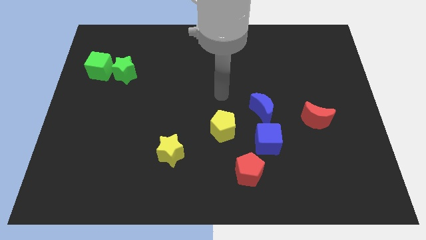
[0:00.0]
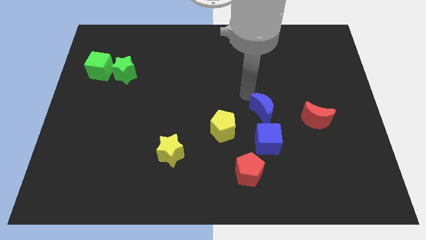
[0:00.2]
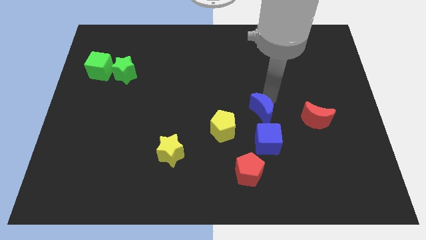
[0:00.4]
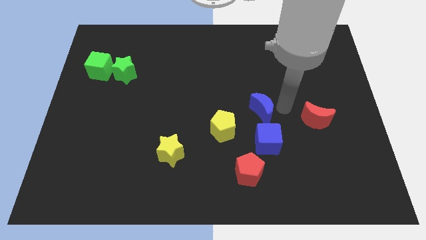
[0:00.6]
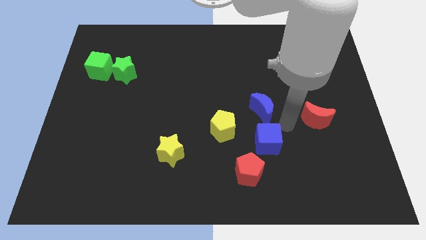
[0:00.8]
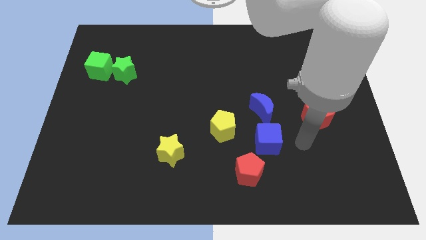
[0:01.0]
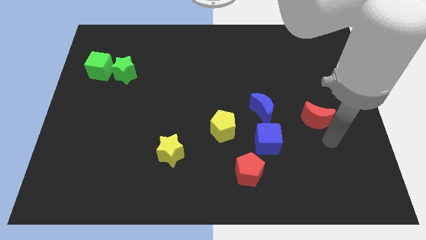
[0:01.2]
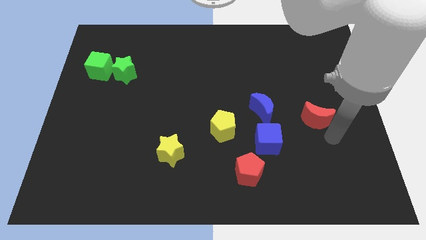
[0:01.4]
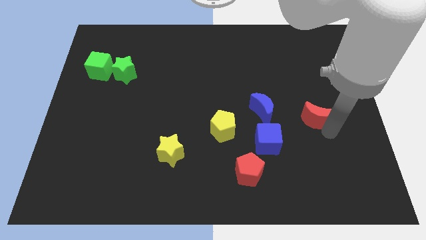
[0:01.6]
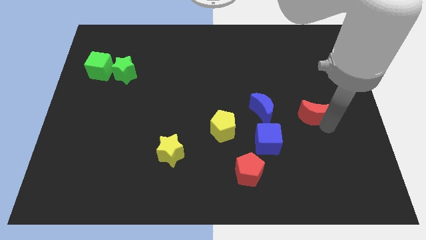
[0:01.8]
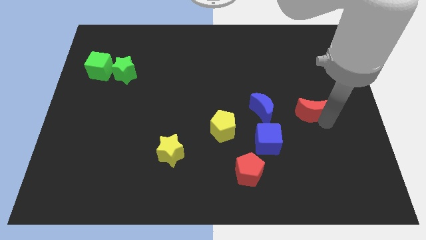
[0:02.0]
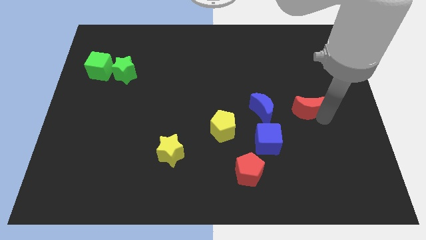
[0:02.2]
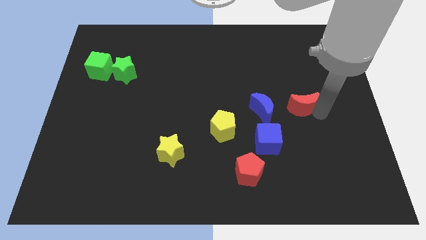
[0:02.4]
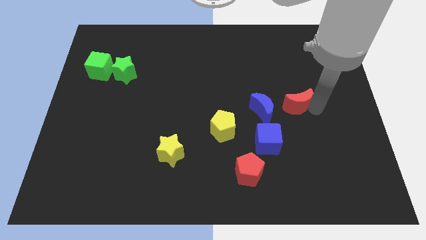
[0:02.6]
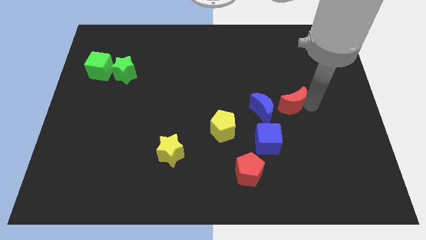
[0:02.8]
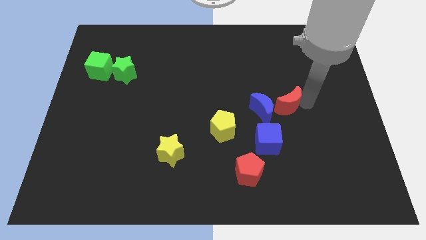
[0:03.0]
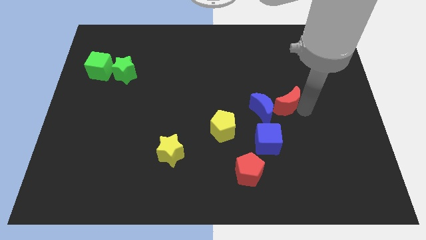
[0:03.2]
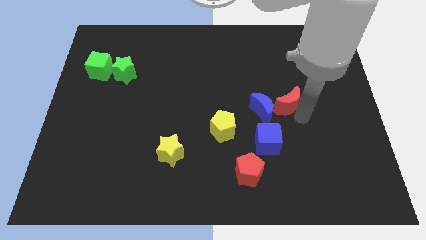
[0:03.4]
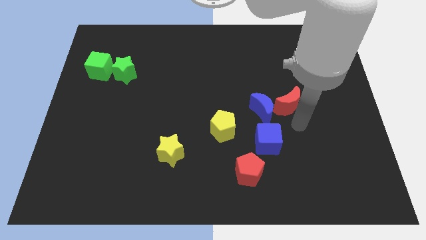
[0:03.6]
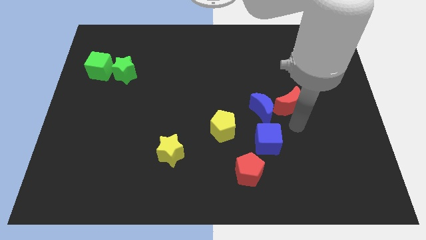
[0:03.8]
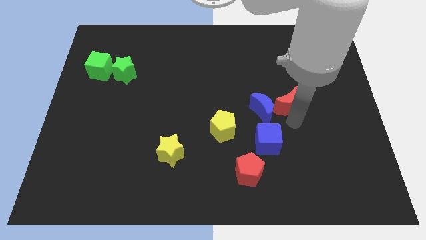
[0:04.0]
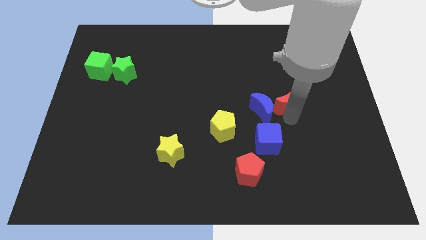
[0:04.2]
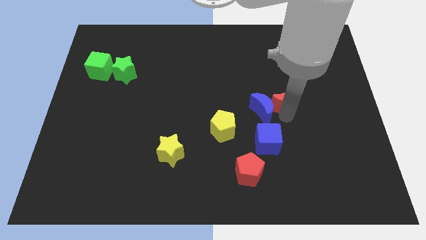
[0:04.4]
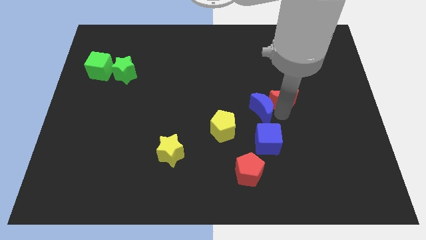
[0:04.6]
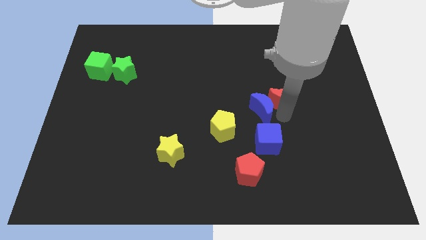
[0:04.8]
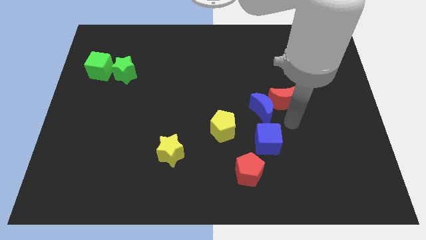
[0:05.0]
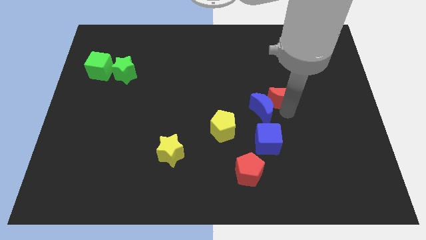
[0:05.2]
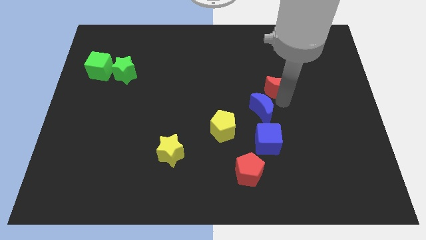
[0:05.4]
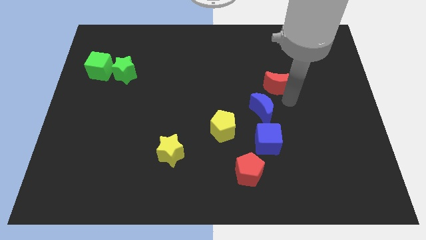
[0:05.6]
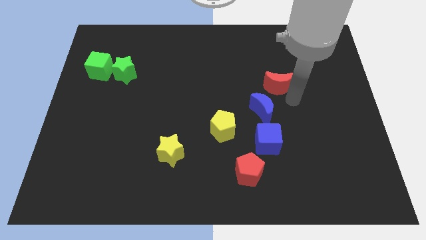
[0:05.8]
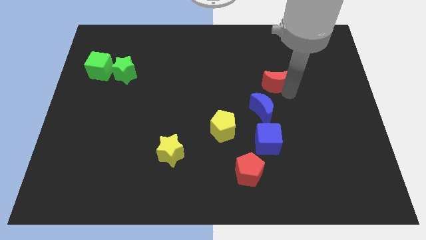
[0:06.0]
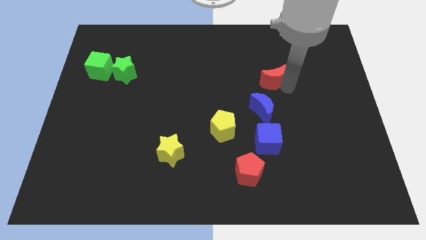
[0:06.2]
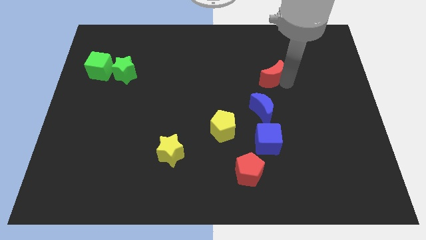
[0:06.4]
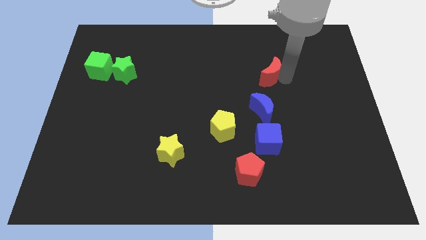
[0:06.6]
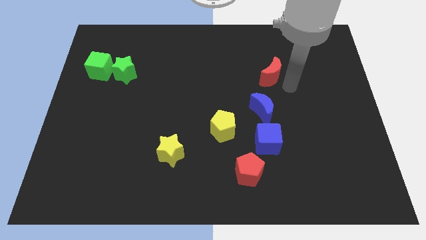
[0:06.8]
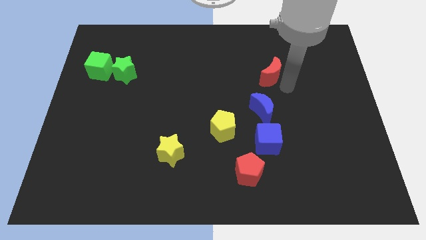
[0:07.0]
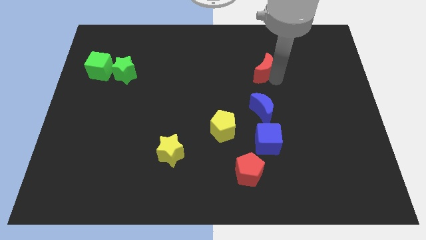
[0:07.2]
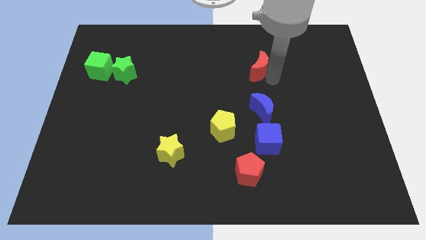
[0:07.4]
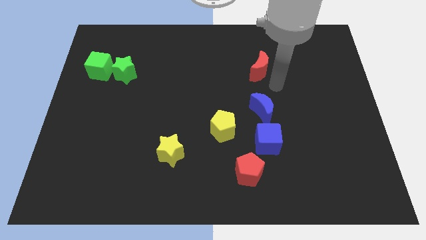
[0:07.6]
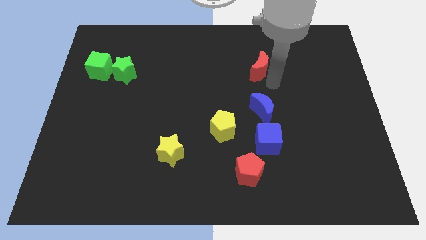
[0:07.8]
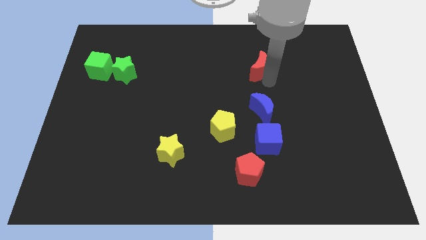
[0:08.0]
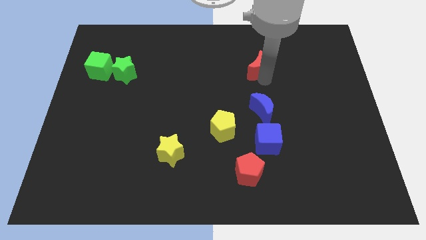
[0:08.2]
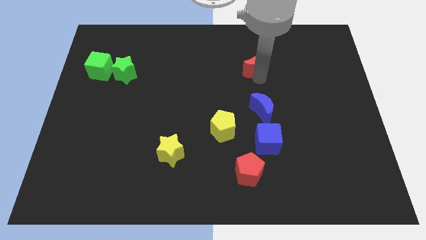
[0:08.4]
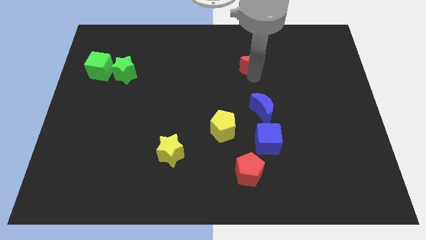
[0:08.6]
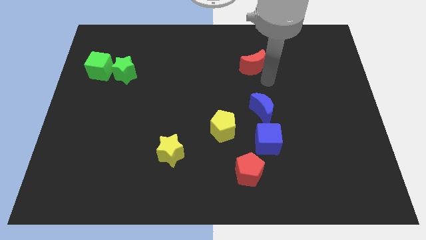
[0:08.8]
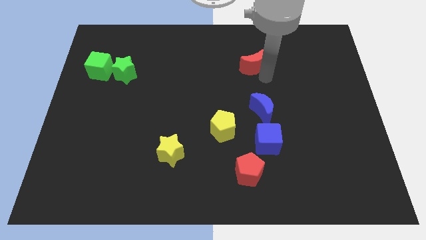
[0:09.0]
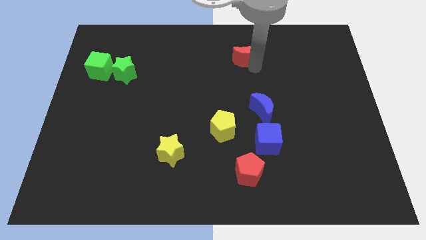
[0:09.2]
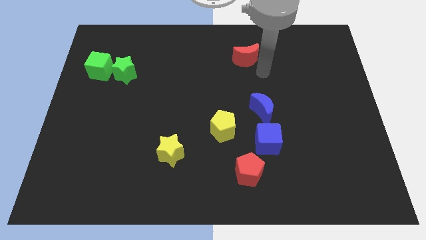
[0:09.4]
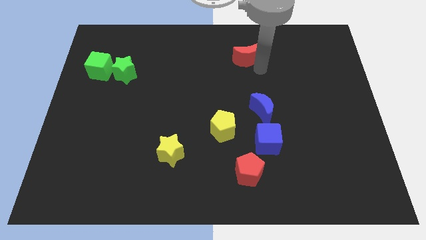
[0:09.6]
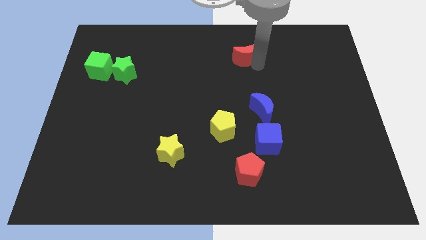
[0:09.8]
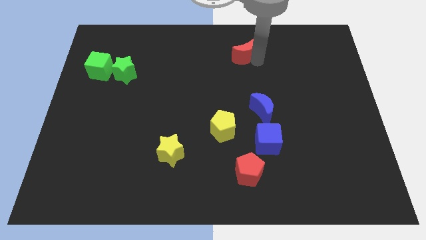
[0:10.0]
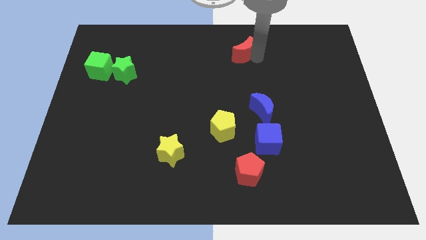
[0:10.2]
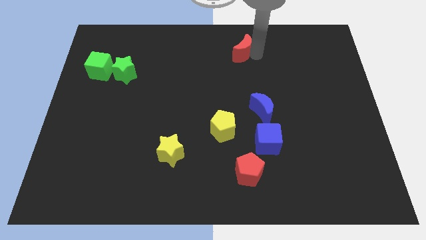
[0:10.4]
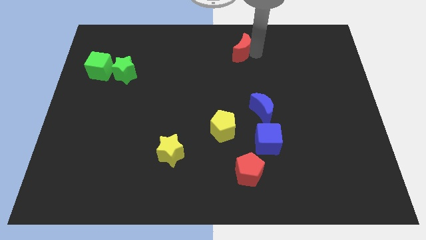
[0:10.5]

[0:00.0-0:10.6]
push the red moon to the top

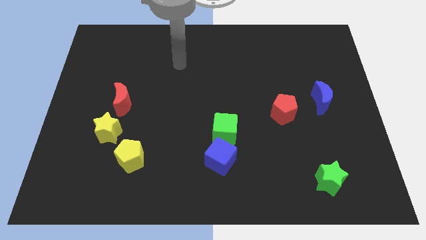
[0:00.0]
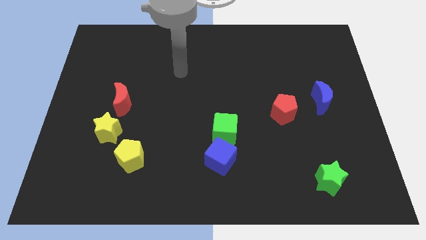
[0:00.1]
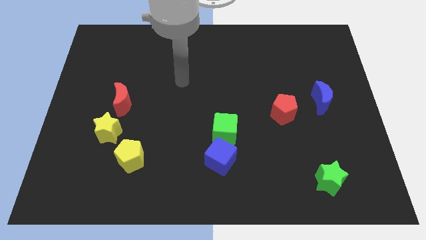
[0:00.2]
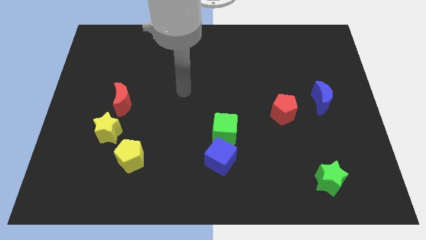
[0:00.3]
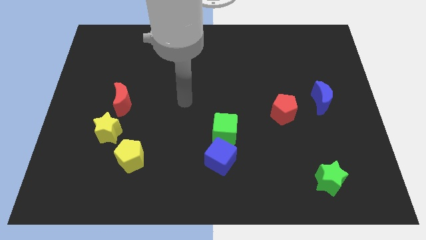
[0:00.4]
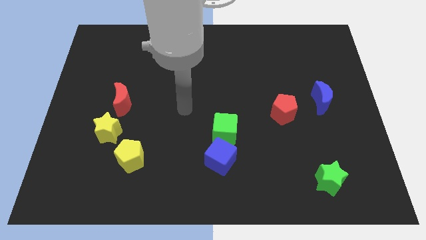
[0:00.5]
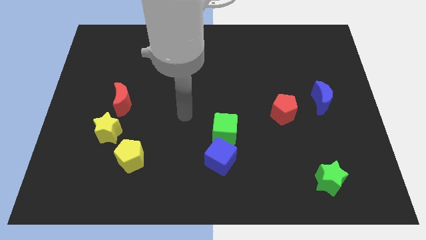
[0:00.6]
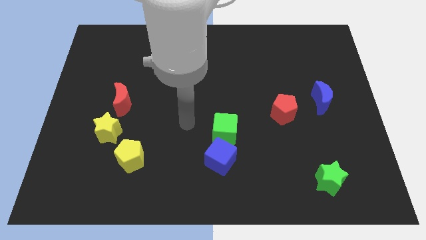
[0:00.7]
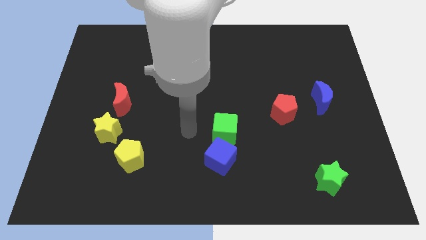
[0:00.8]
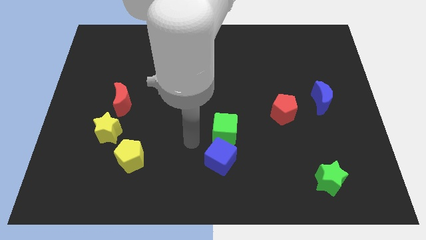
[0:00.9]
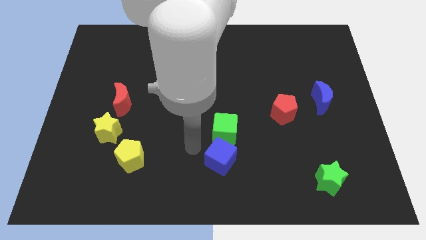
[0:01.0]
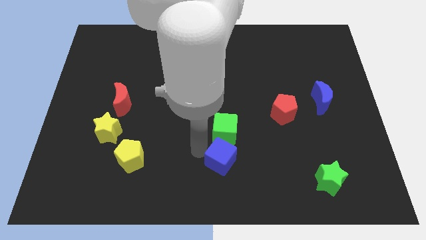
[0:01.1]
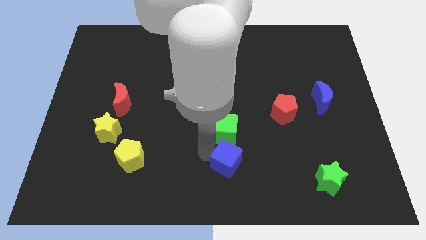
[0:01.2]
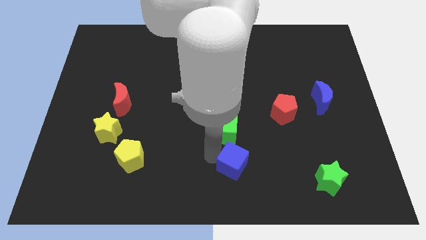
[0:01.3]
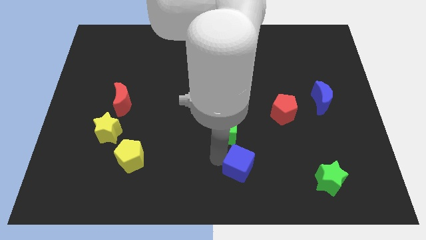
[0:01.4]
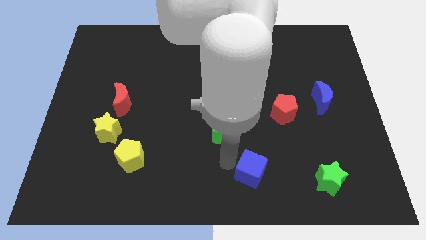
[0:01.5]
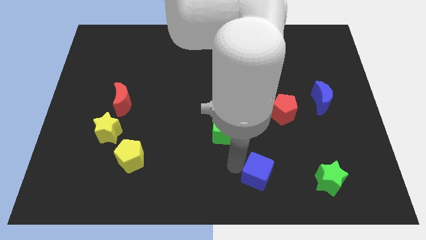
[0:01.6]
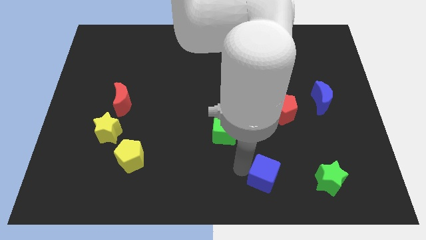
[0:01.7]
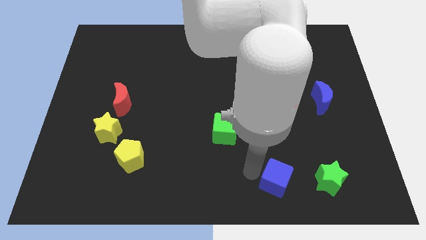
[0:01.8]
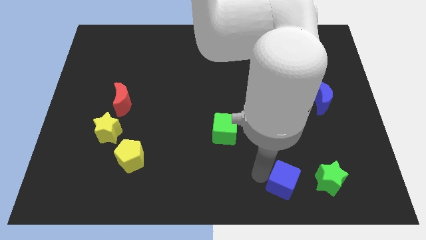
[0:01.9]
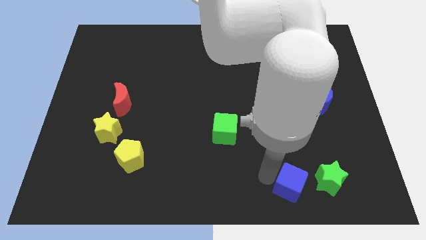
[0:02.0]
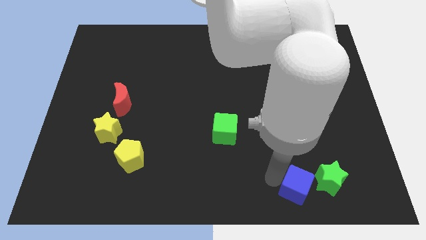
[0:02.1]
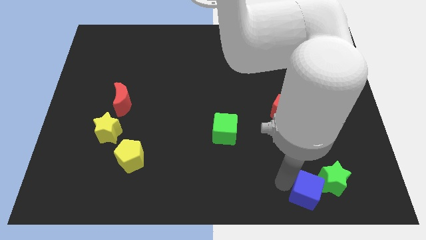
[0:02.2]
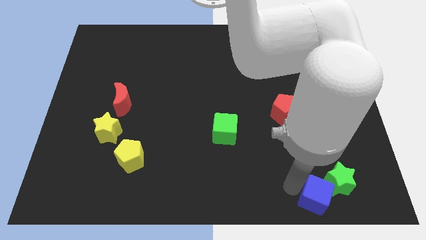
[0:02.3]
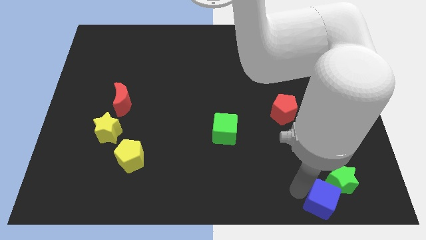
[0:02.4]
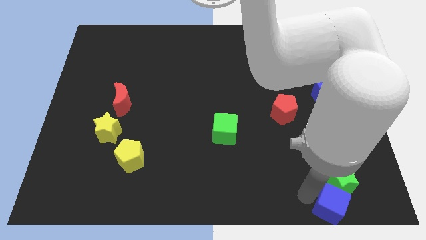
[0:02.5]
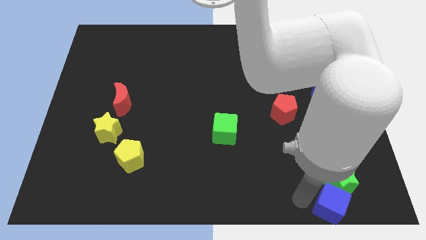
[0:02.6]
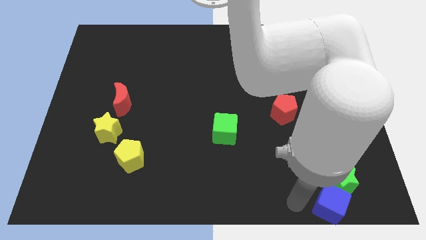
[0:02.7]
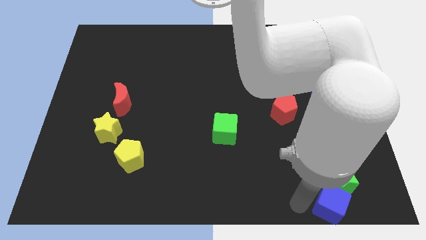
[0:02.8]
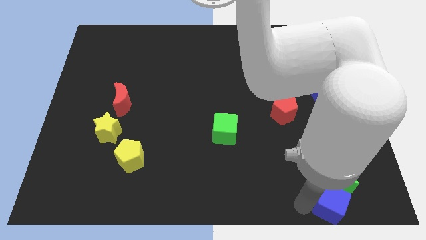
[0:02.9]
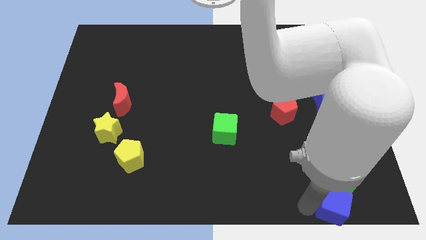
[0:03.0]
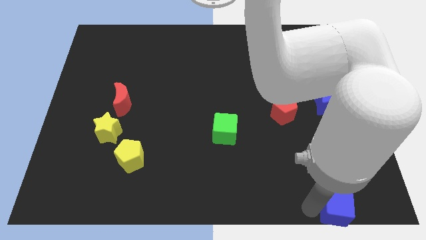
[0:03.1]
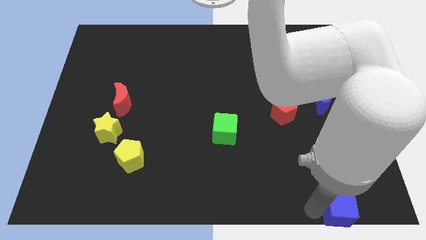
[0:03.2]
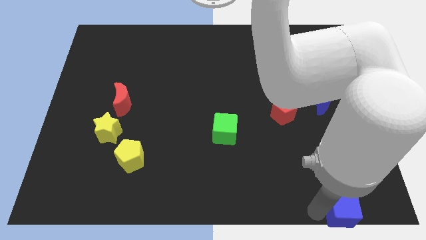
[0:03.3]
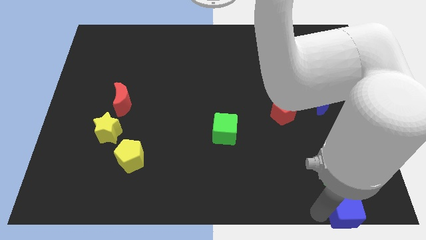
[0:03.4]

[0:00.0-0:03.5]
slide the blue cube to the bottom right
